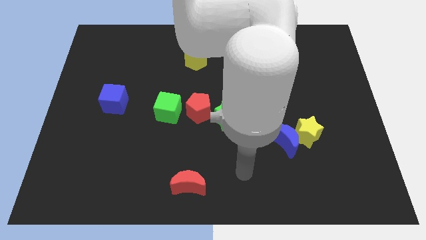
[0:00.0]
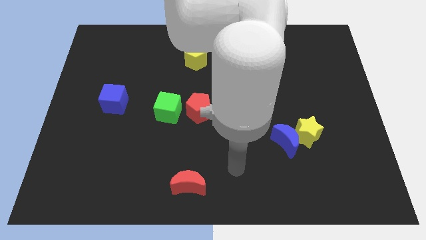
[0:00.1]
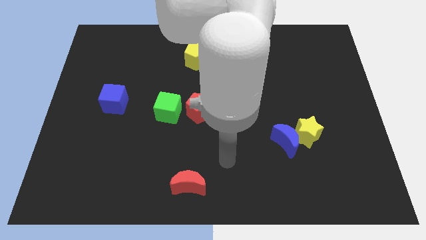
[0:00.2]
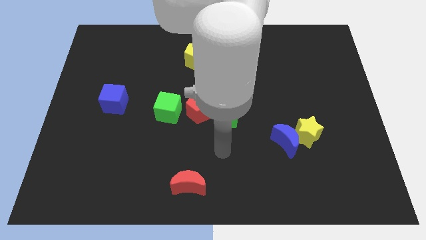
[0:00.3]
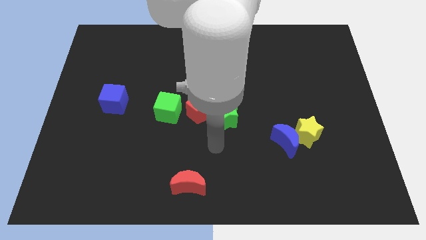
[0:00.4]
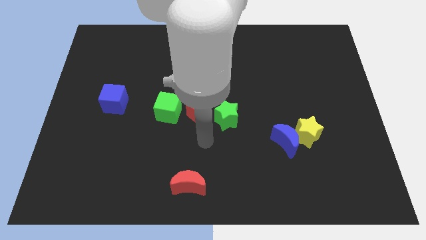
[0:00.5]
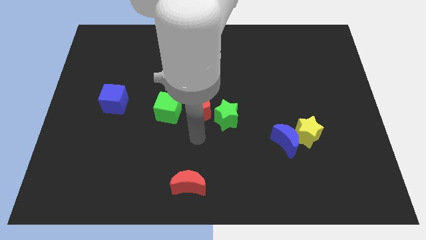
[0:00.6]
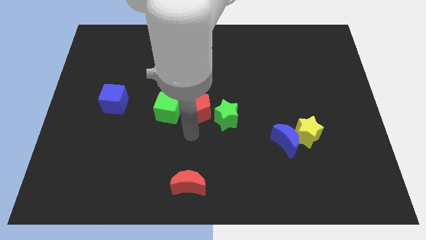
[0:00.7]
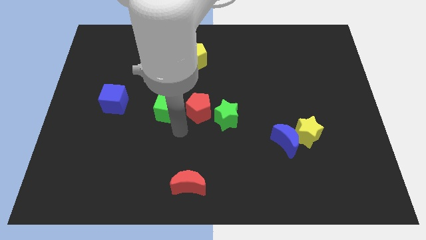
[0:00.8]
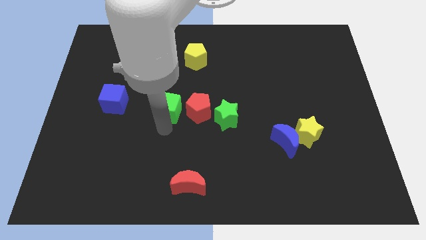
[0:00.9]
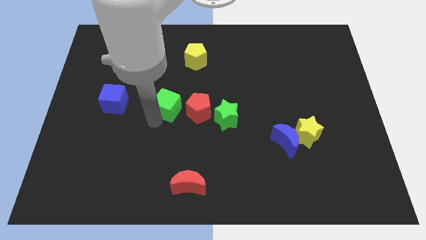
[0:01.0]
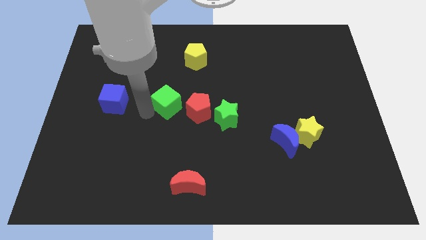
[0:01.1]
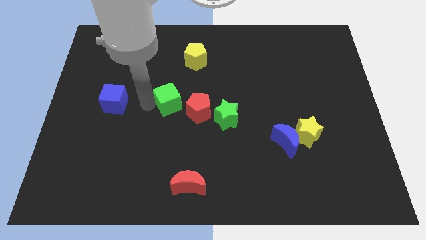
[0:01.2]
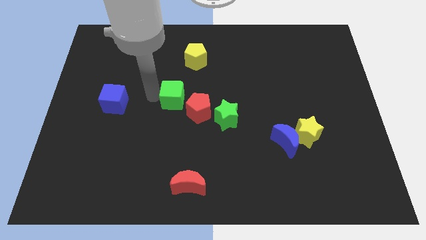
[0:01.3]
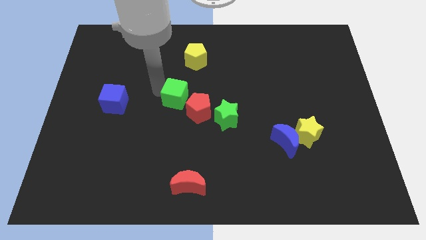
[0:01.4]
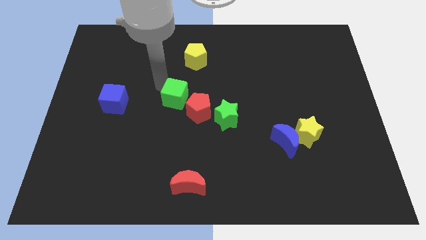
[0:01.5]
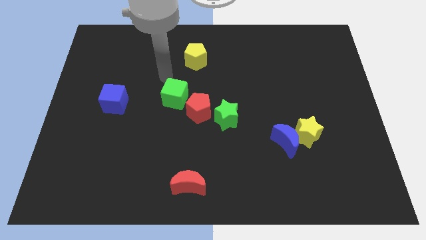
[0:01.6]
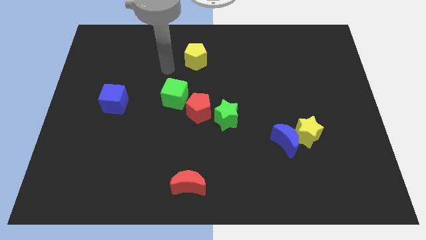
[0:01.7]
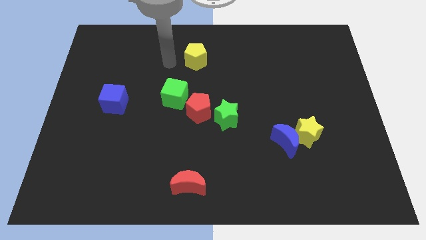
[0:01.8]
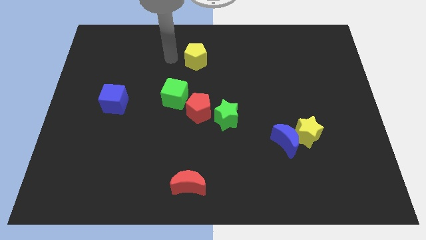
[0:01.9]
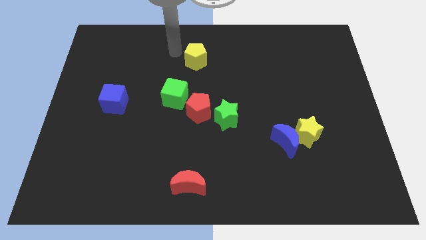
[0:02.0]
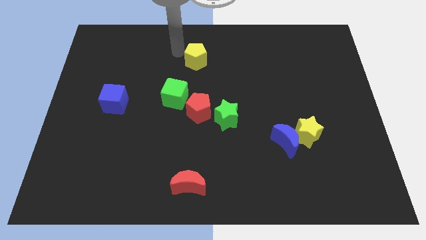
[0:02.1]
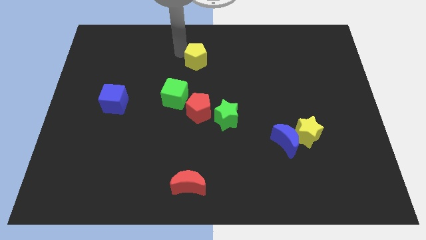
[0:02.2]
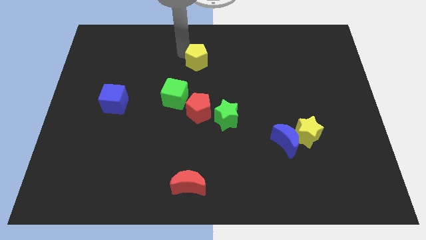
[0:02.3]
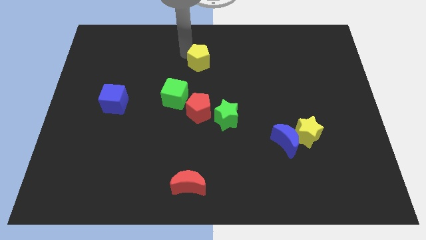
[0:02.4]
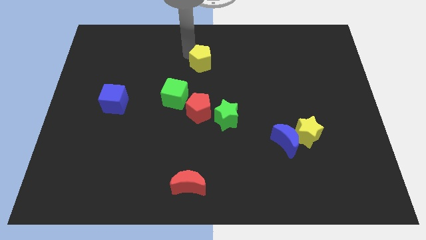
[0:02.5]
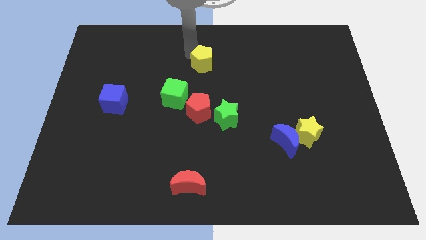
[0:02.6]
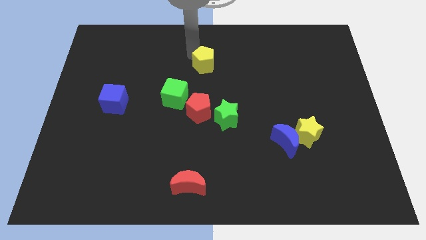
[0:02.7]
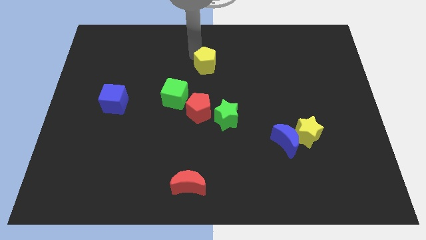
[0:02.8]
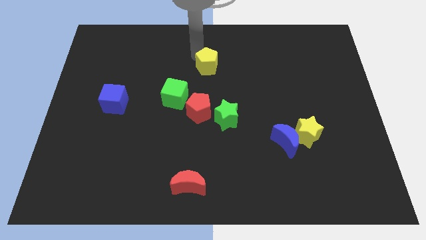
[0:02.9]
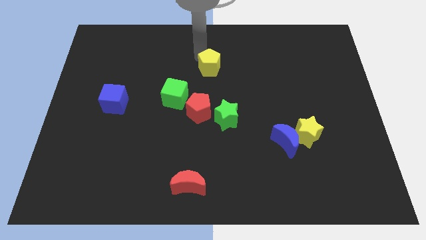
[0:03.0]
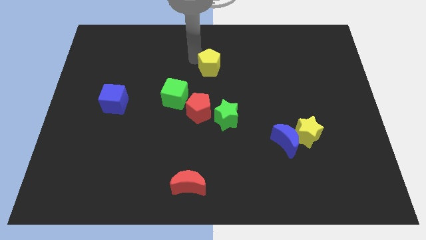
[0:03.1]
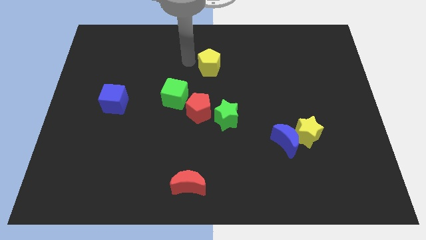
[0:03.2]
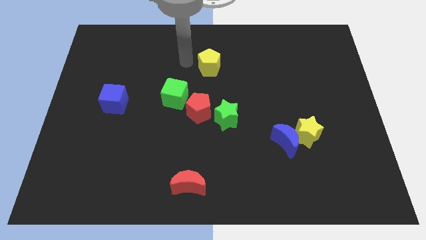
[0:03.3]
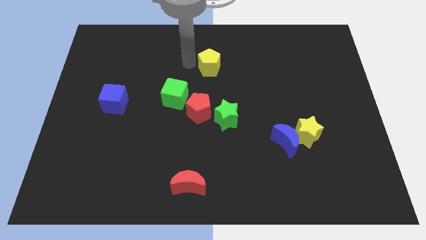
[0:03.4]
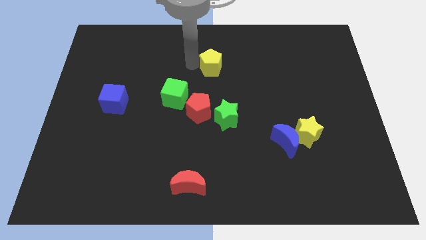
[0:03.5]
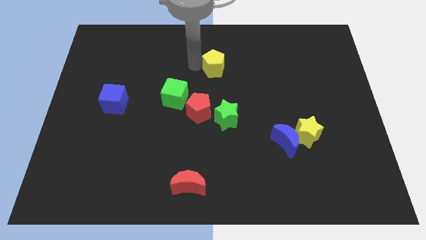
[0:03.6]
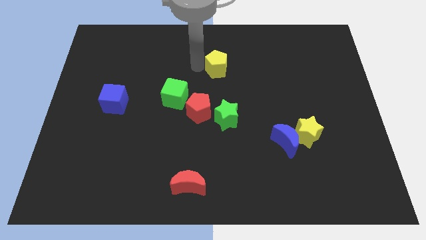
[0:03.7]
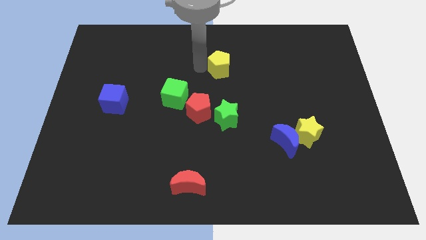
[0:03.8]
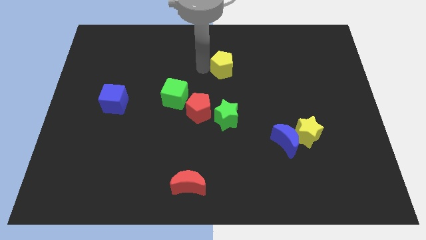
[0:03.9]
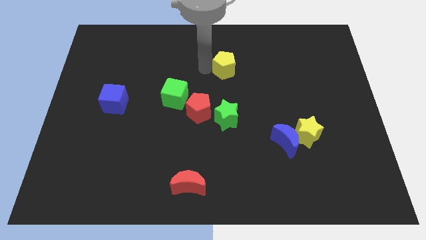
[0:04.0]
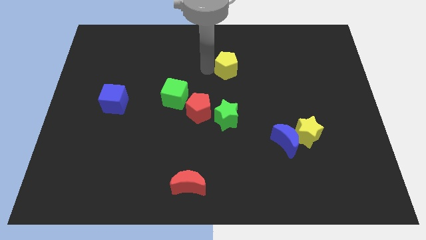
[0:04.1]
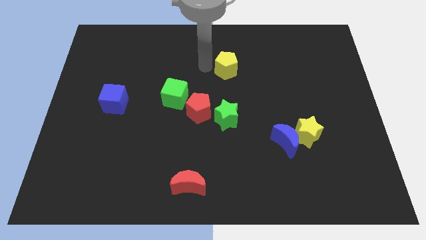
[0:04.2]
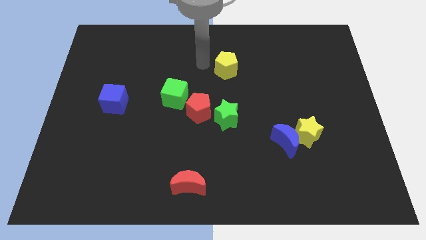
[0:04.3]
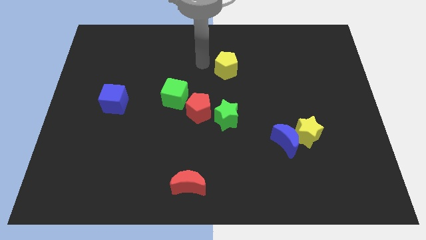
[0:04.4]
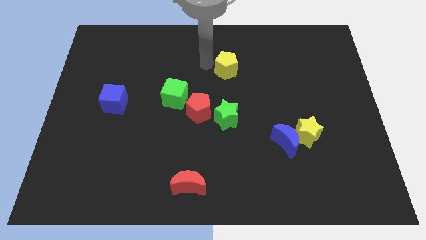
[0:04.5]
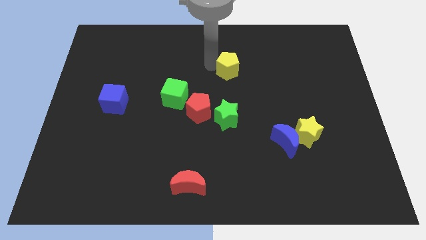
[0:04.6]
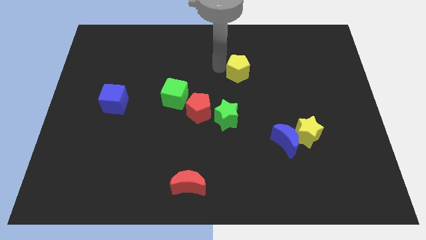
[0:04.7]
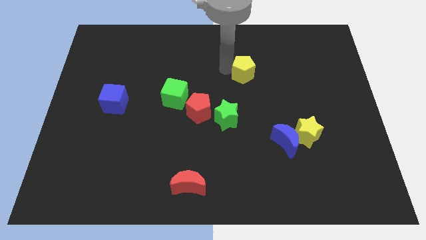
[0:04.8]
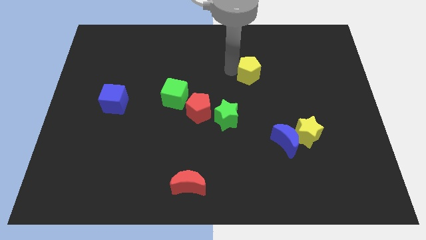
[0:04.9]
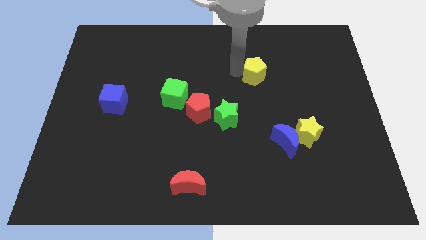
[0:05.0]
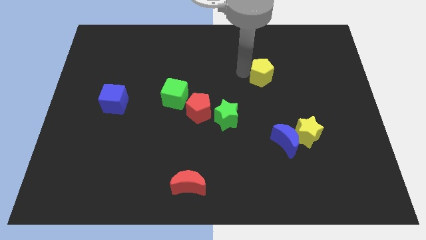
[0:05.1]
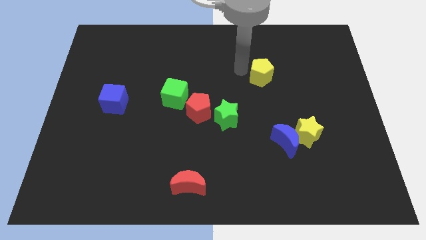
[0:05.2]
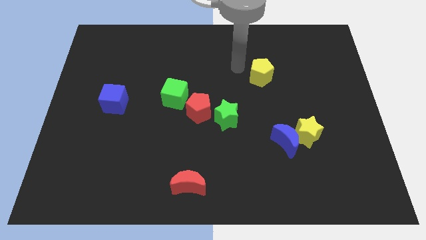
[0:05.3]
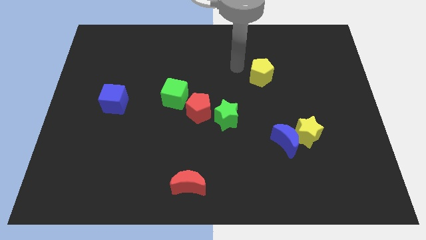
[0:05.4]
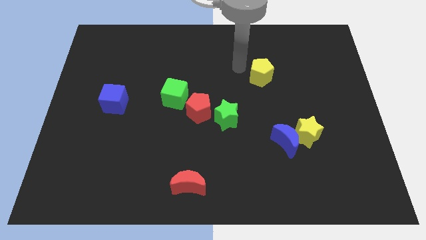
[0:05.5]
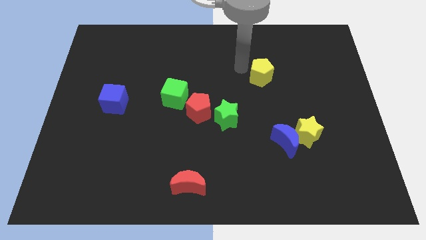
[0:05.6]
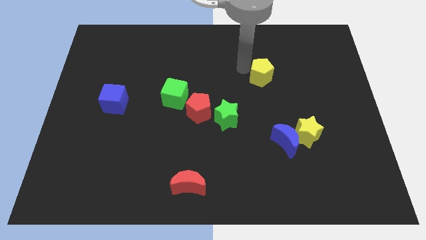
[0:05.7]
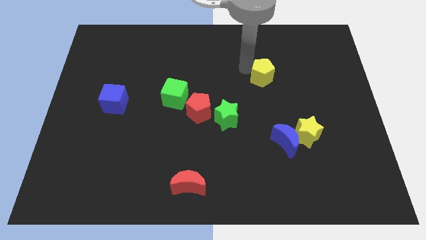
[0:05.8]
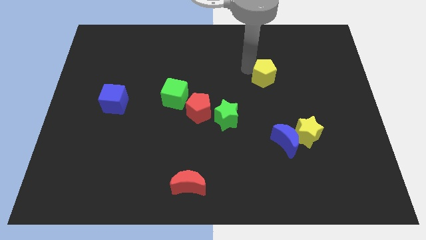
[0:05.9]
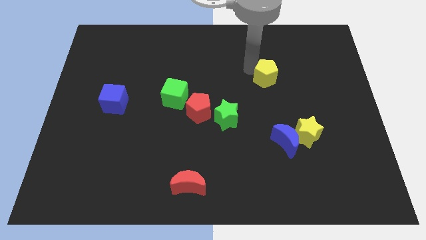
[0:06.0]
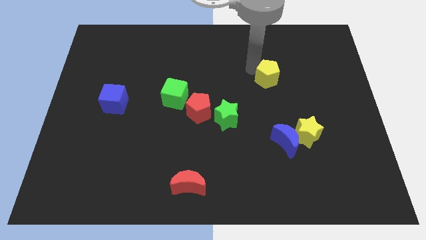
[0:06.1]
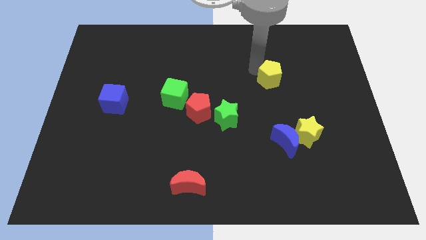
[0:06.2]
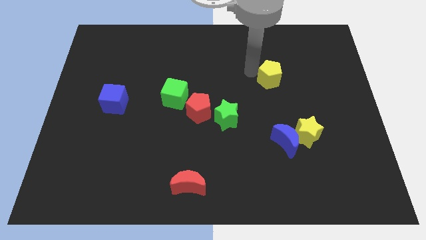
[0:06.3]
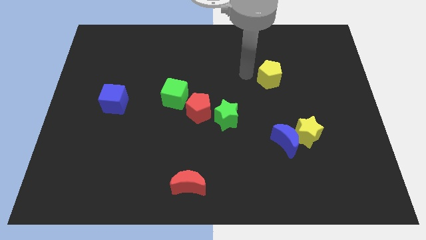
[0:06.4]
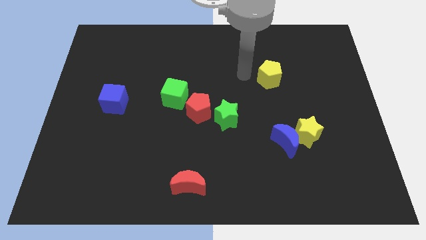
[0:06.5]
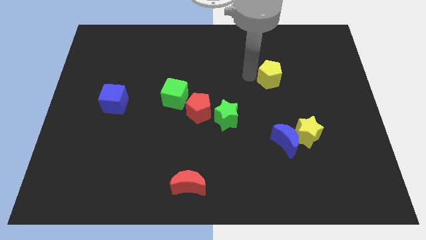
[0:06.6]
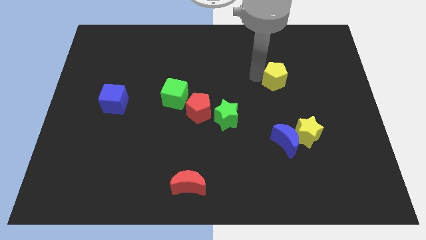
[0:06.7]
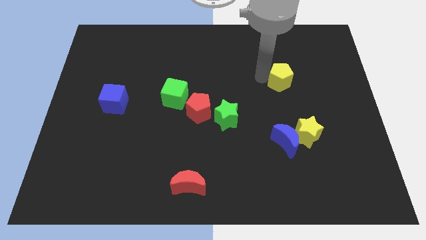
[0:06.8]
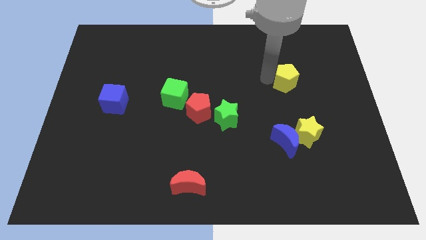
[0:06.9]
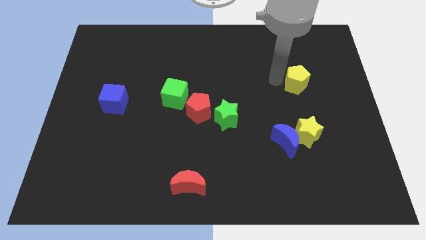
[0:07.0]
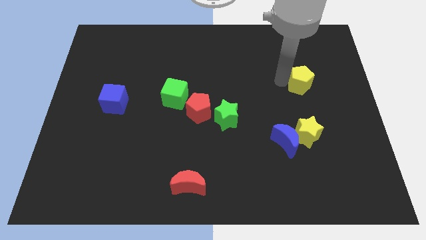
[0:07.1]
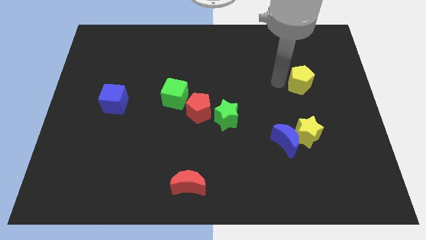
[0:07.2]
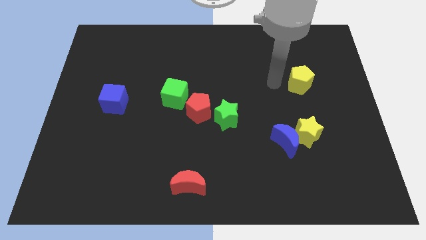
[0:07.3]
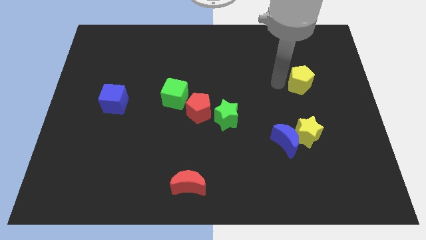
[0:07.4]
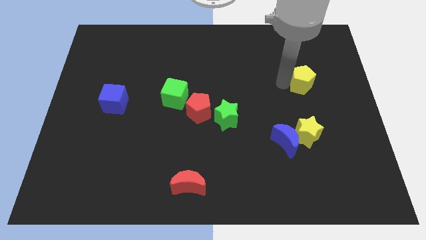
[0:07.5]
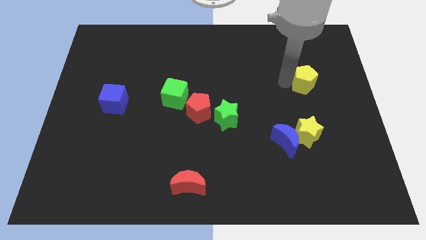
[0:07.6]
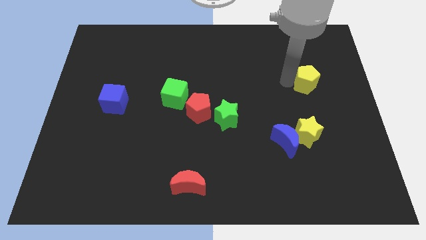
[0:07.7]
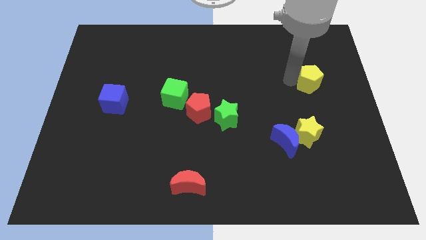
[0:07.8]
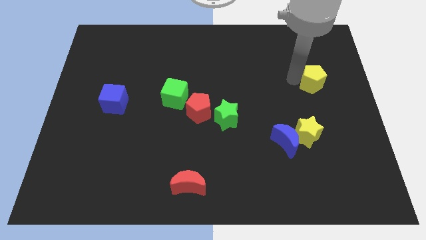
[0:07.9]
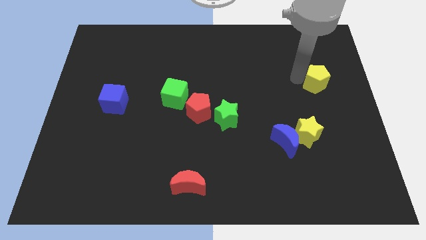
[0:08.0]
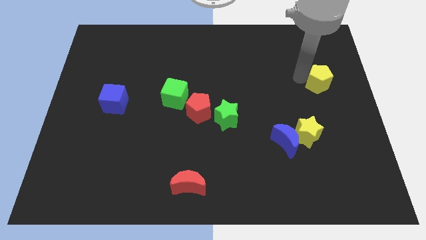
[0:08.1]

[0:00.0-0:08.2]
put the yellow pentagon to the right side of the board

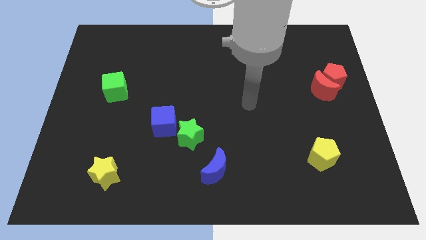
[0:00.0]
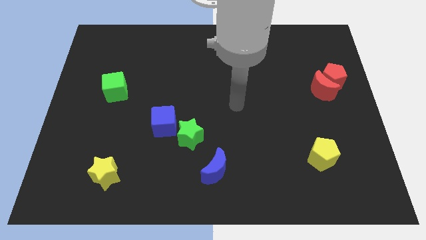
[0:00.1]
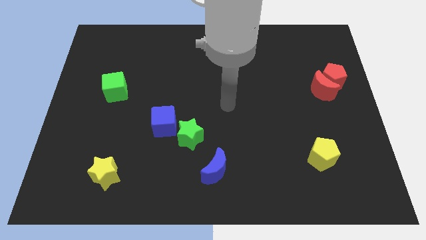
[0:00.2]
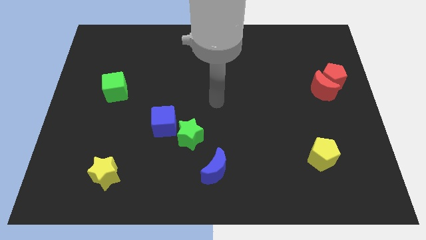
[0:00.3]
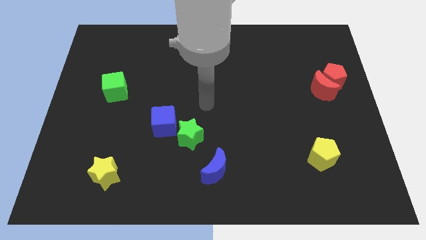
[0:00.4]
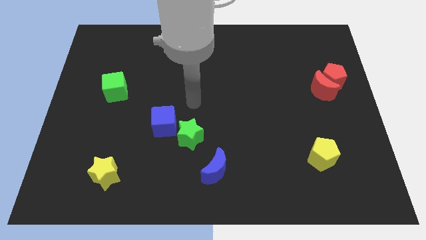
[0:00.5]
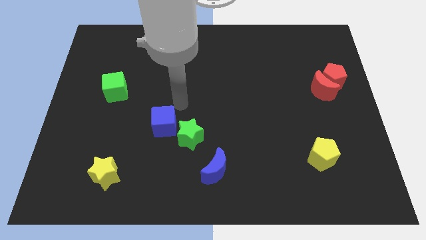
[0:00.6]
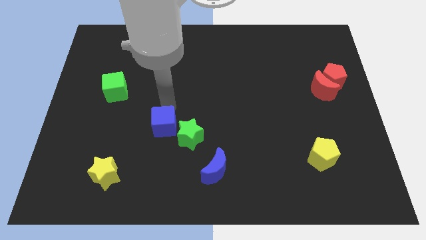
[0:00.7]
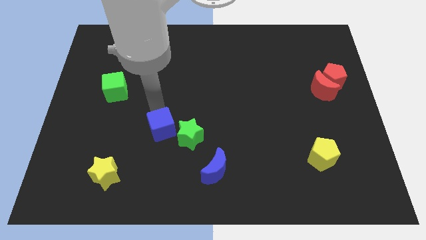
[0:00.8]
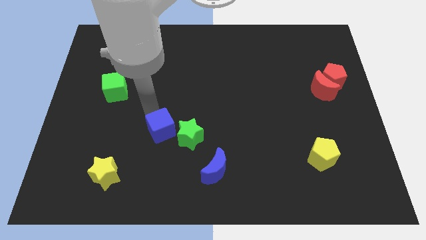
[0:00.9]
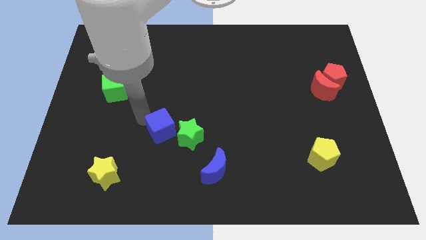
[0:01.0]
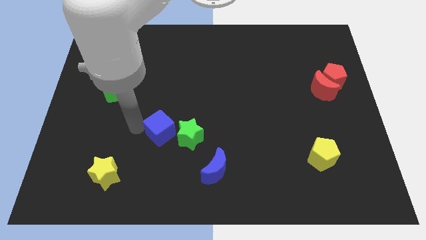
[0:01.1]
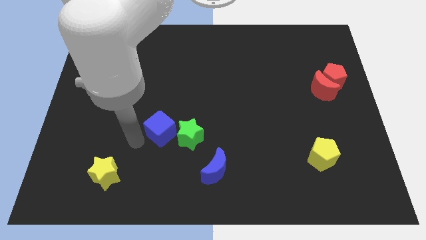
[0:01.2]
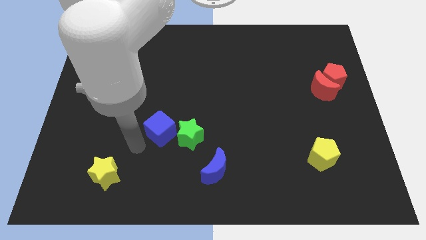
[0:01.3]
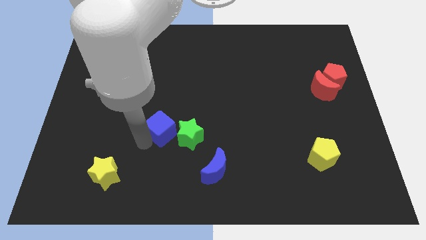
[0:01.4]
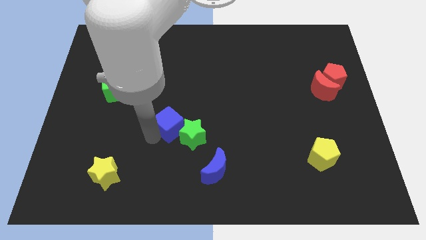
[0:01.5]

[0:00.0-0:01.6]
slide the blue cube to the middle of the board
